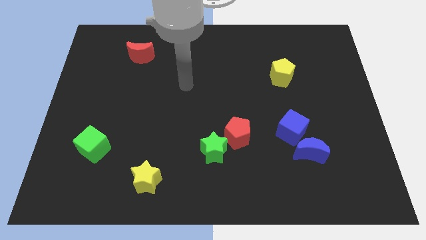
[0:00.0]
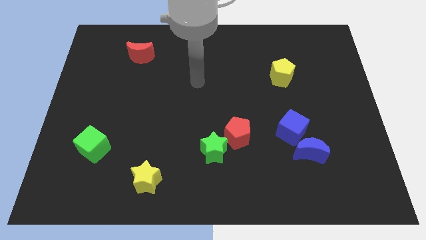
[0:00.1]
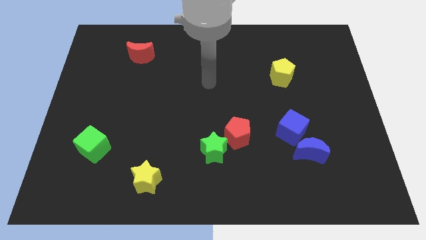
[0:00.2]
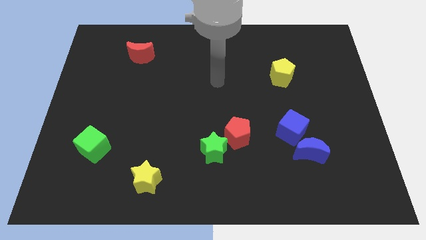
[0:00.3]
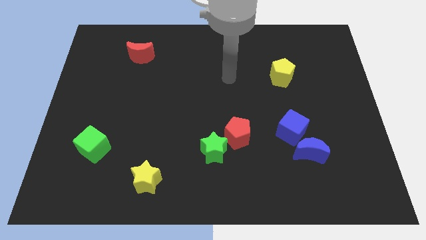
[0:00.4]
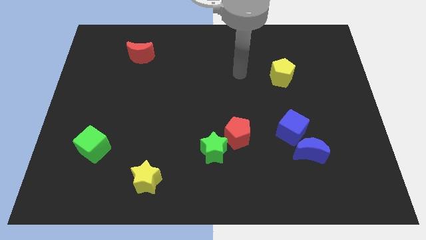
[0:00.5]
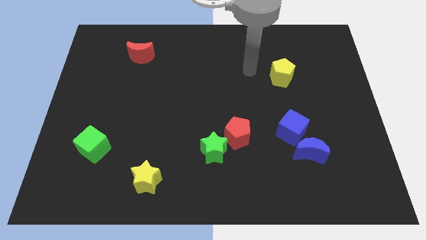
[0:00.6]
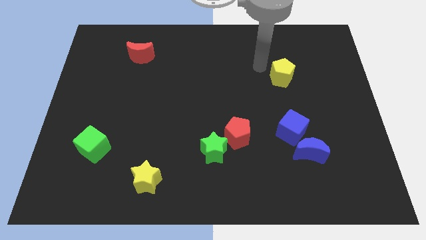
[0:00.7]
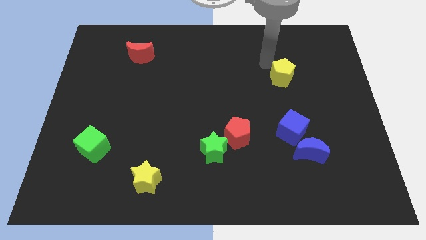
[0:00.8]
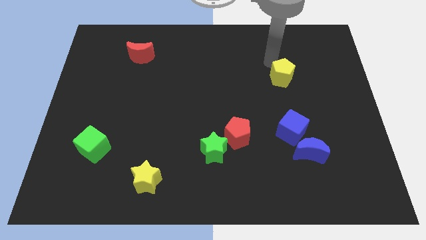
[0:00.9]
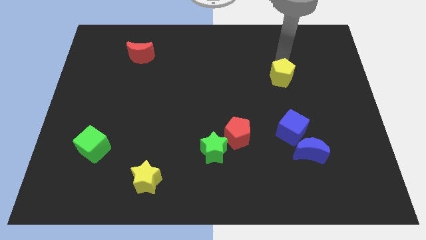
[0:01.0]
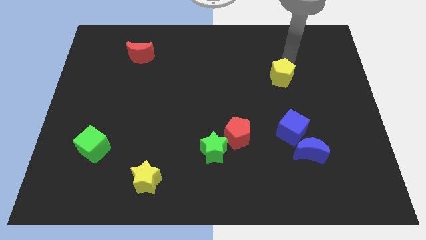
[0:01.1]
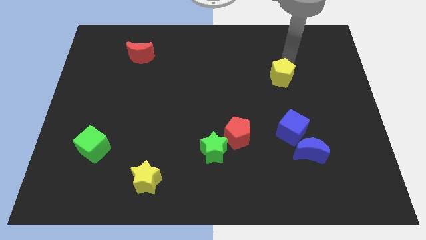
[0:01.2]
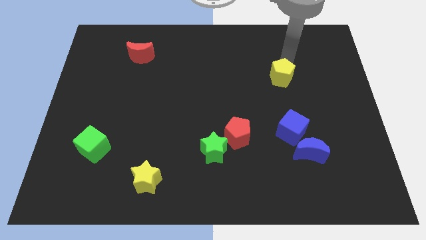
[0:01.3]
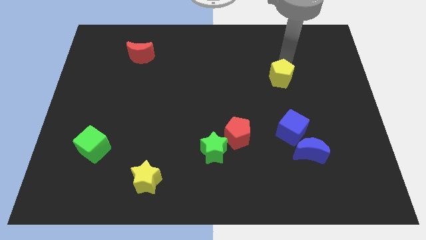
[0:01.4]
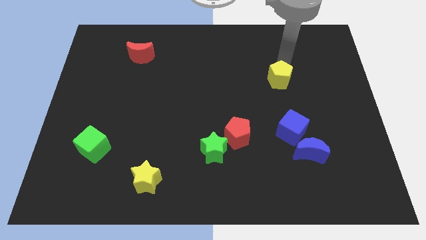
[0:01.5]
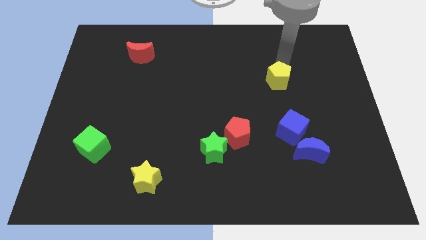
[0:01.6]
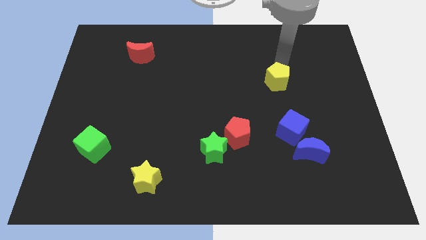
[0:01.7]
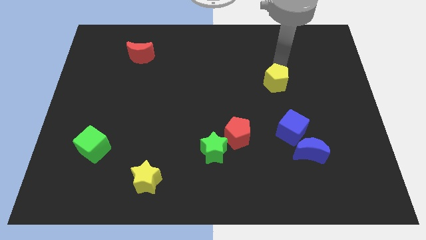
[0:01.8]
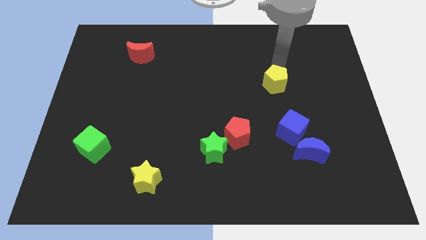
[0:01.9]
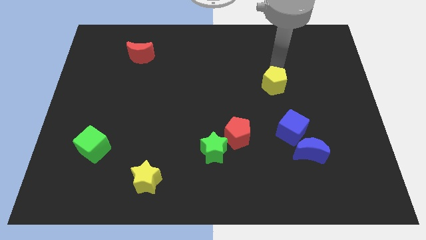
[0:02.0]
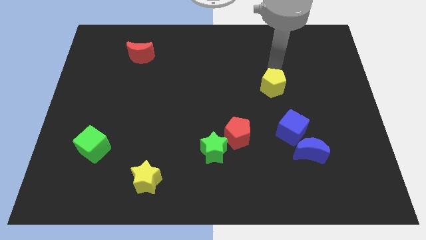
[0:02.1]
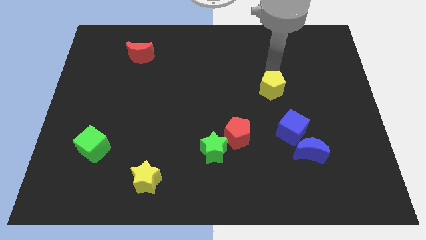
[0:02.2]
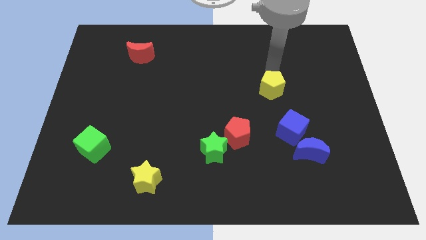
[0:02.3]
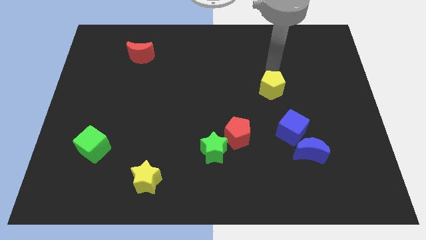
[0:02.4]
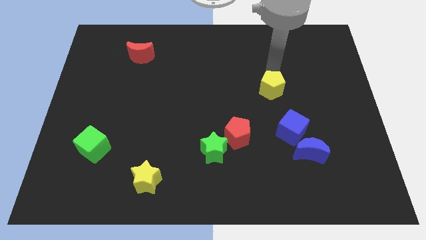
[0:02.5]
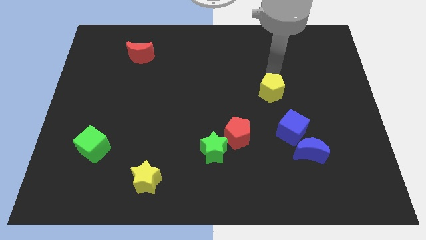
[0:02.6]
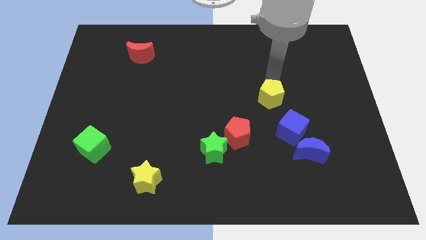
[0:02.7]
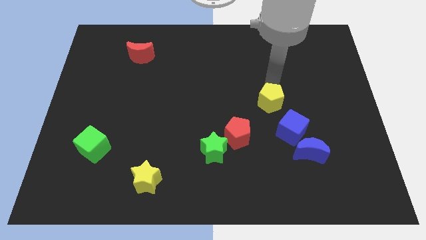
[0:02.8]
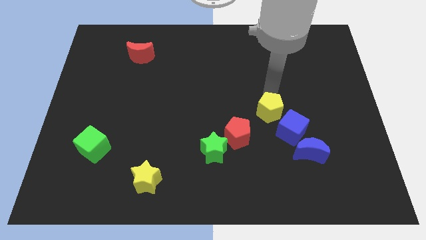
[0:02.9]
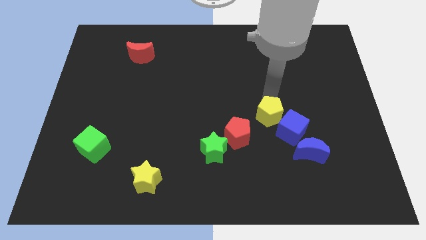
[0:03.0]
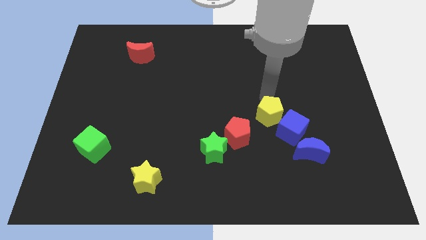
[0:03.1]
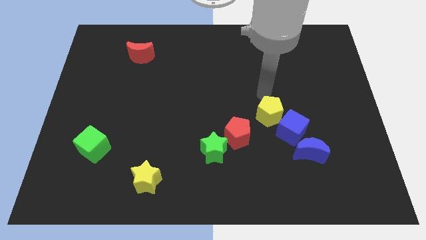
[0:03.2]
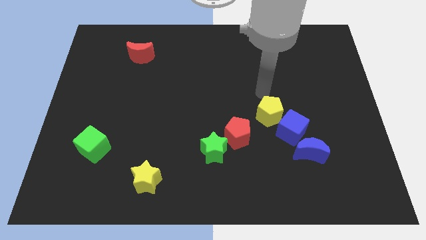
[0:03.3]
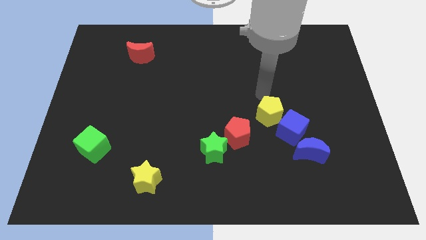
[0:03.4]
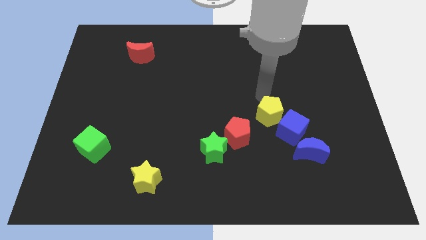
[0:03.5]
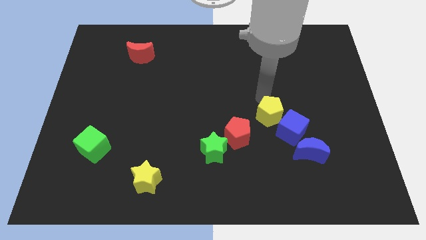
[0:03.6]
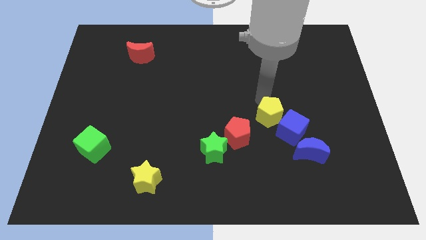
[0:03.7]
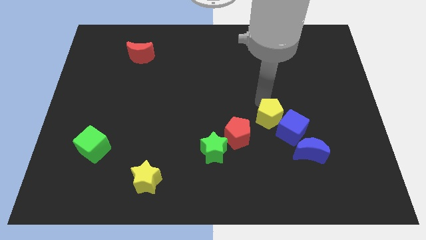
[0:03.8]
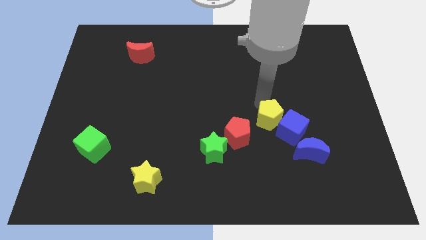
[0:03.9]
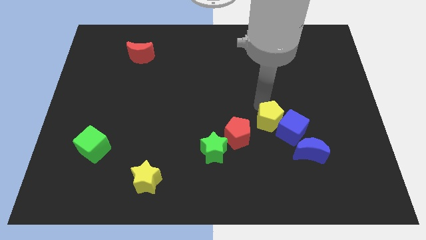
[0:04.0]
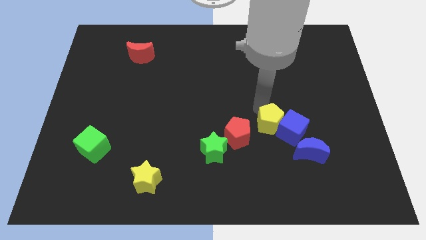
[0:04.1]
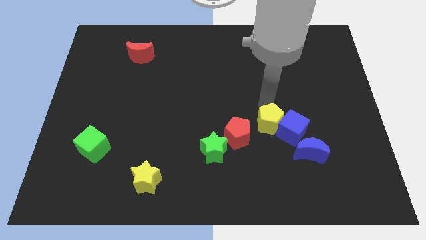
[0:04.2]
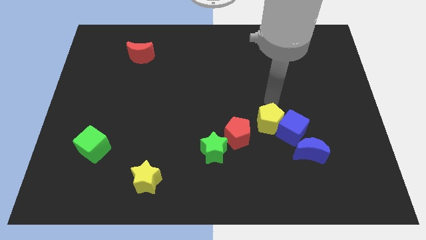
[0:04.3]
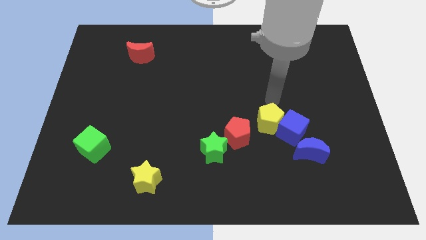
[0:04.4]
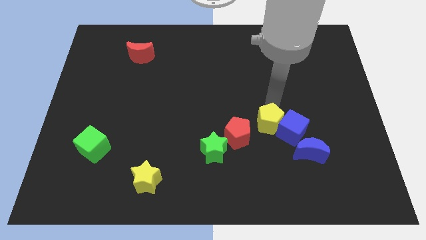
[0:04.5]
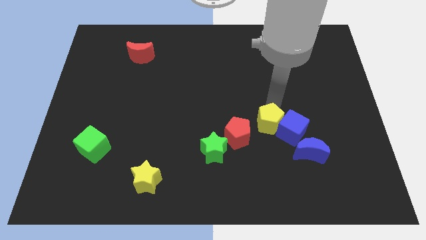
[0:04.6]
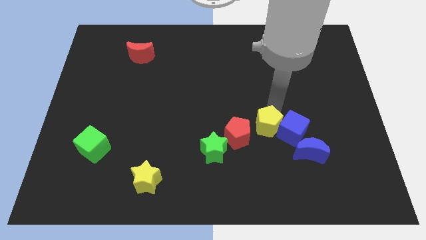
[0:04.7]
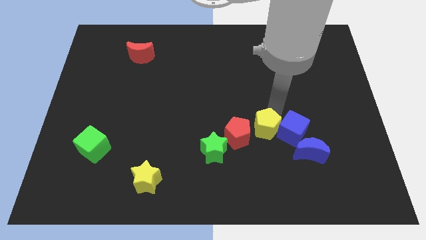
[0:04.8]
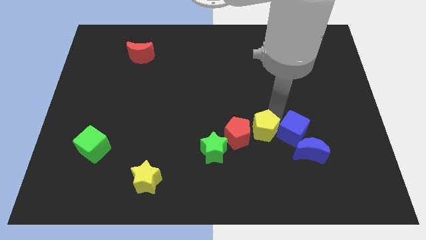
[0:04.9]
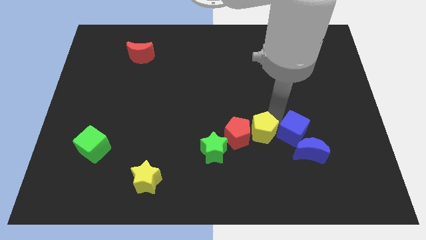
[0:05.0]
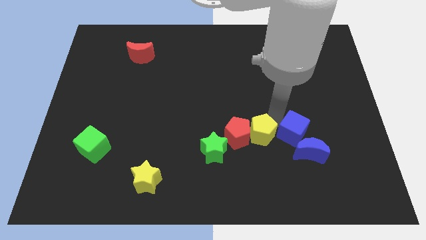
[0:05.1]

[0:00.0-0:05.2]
push the yellow pentagon to the bottom right side of the red pentagon

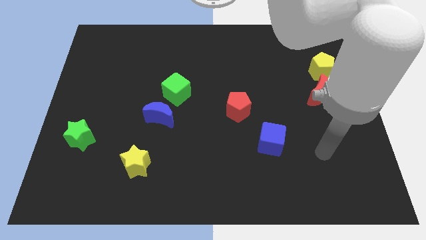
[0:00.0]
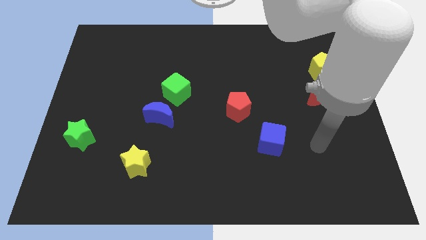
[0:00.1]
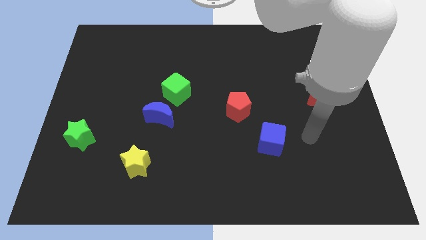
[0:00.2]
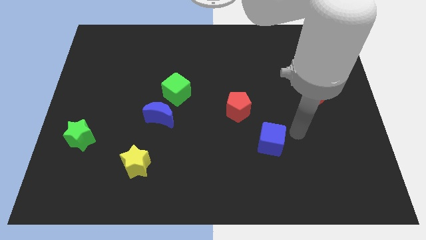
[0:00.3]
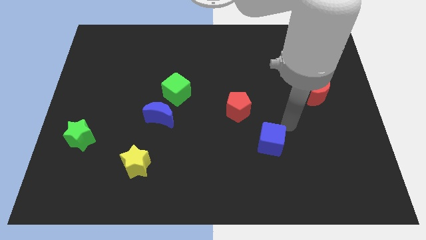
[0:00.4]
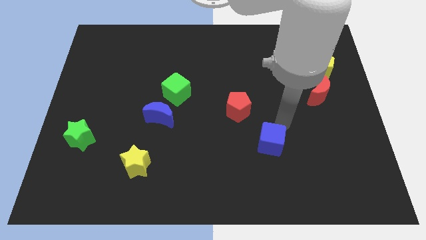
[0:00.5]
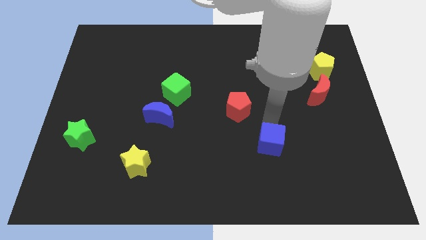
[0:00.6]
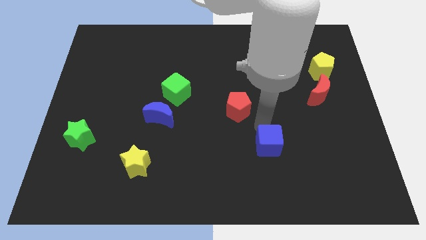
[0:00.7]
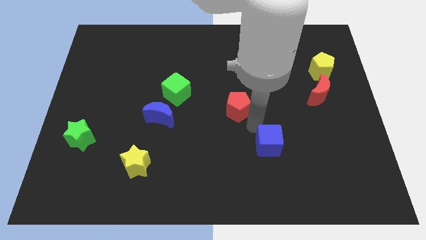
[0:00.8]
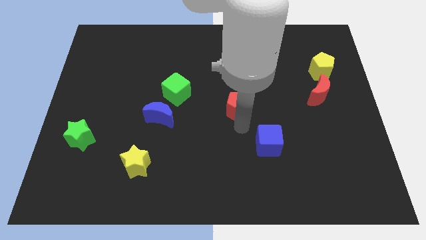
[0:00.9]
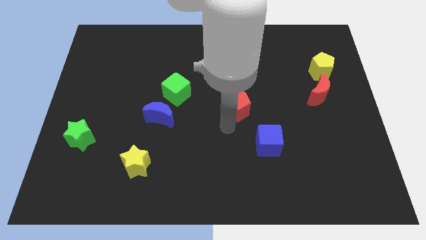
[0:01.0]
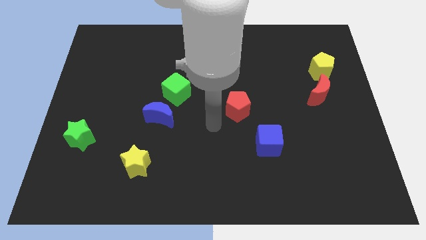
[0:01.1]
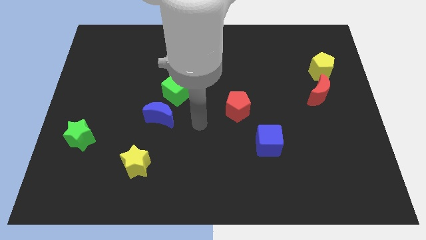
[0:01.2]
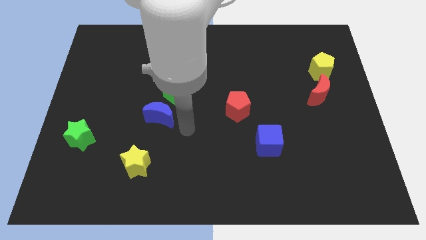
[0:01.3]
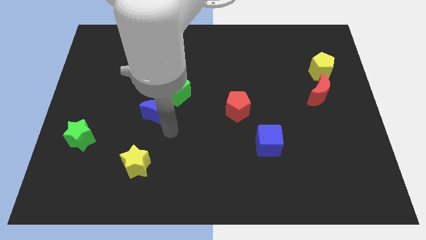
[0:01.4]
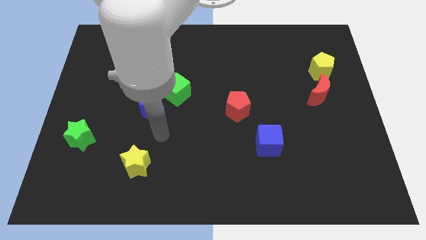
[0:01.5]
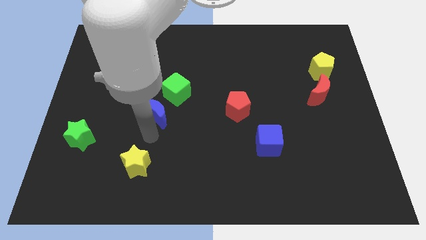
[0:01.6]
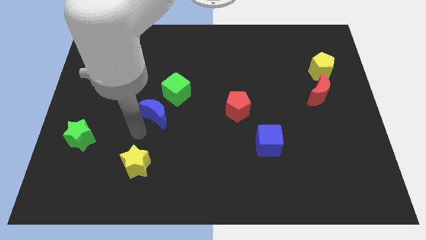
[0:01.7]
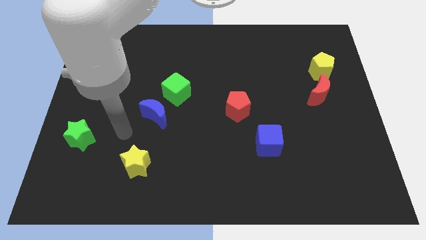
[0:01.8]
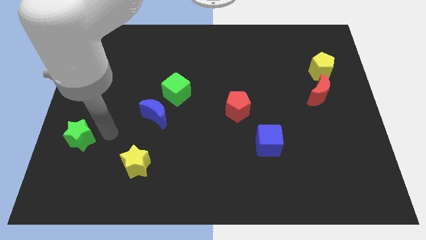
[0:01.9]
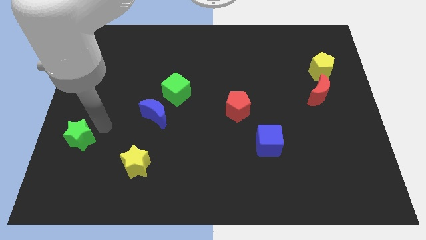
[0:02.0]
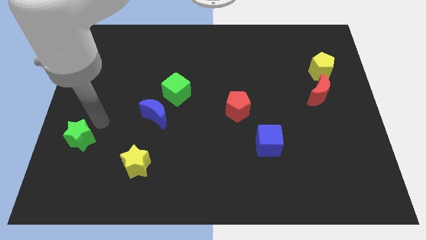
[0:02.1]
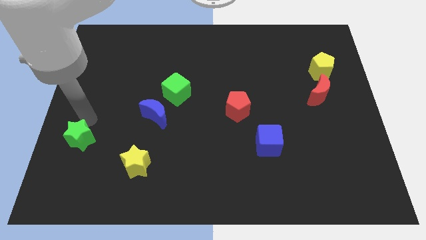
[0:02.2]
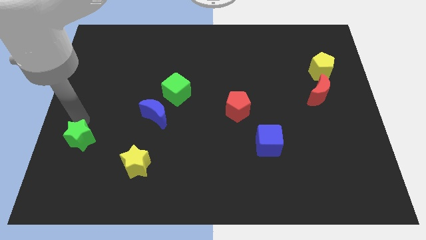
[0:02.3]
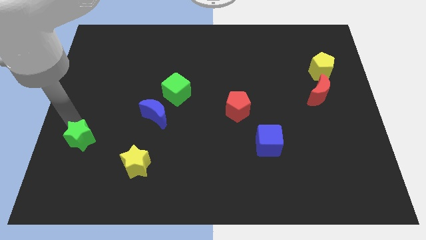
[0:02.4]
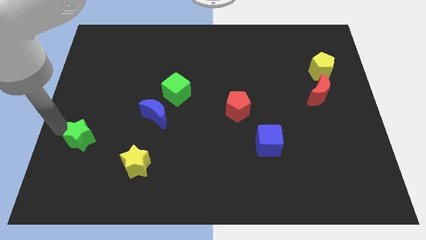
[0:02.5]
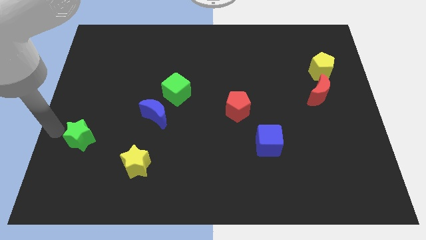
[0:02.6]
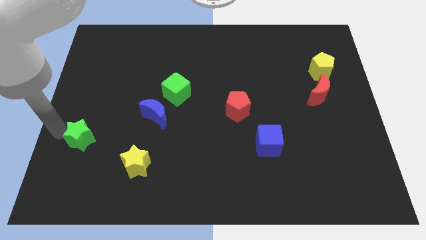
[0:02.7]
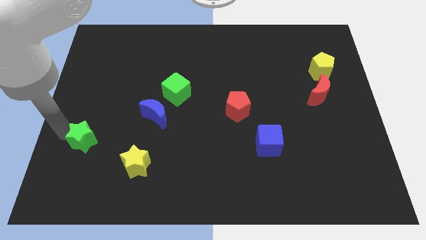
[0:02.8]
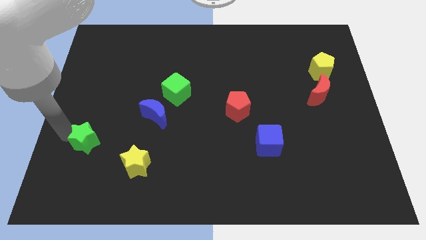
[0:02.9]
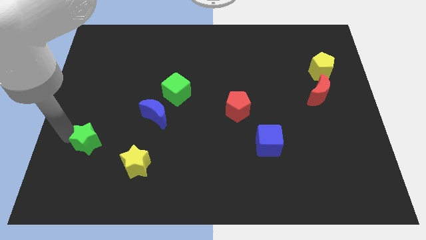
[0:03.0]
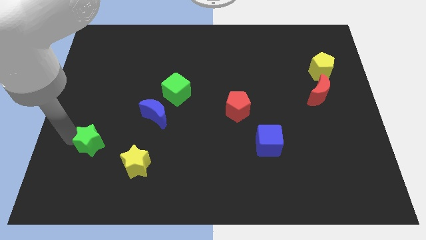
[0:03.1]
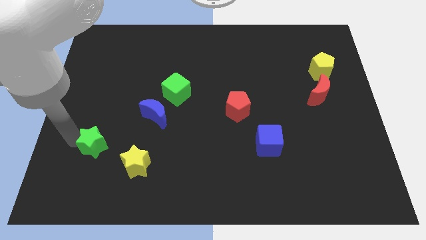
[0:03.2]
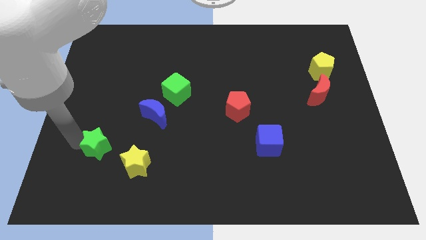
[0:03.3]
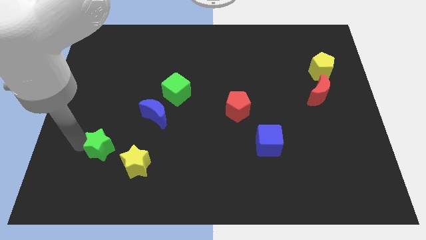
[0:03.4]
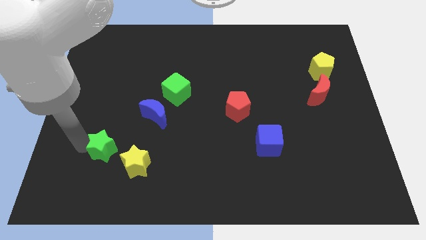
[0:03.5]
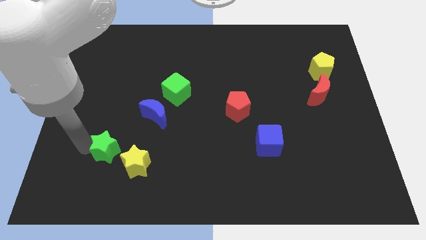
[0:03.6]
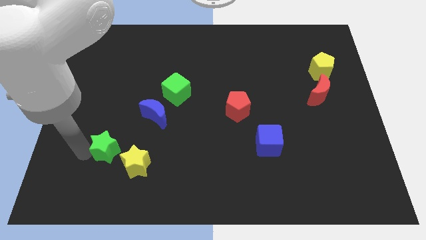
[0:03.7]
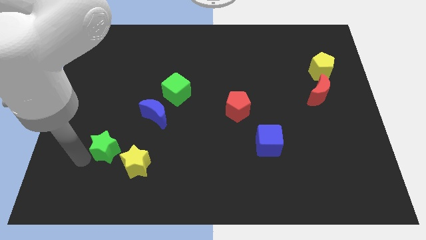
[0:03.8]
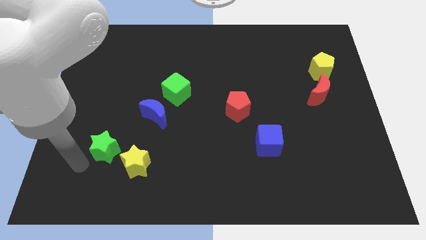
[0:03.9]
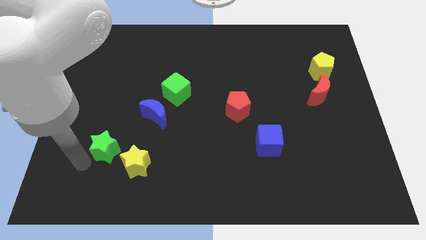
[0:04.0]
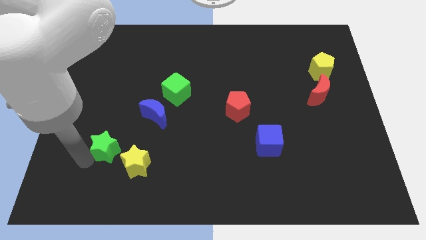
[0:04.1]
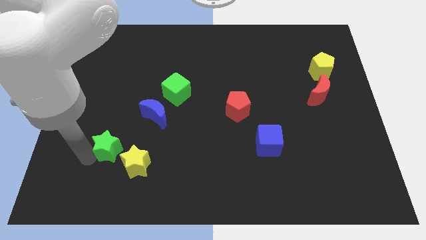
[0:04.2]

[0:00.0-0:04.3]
move the green star to the bottom left of the blue moon
